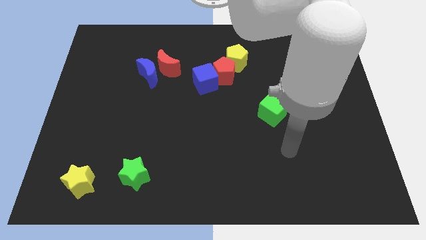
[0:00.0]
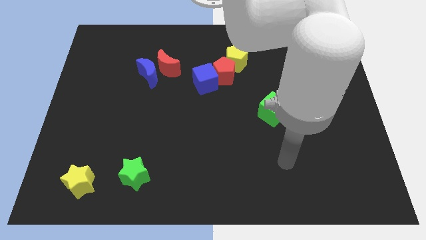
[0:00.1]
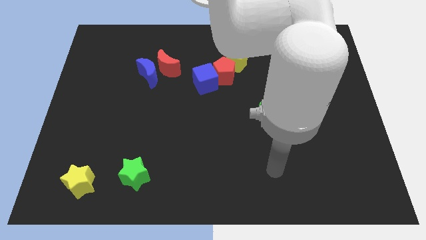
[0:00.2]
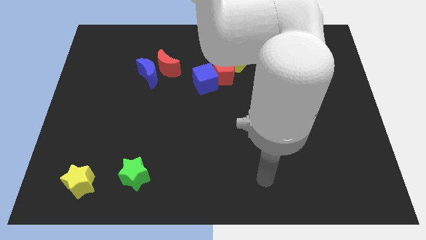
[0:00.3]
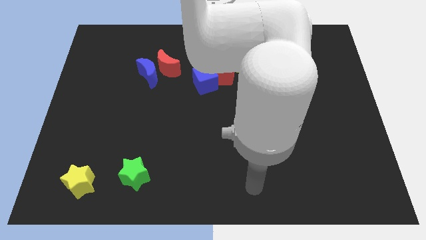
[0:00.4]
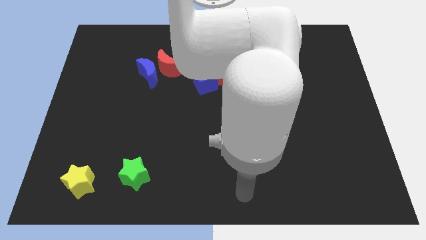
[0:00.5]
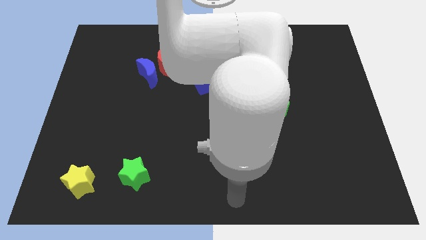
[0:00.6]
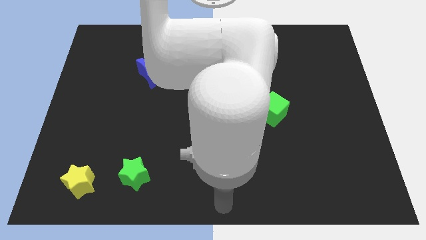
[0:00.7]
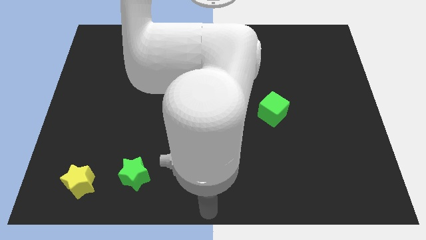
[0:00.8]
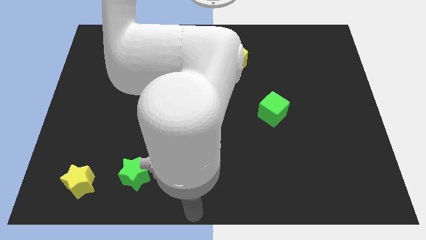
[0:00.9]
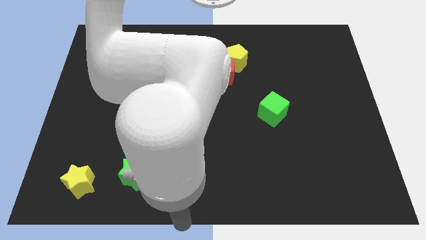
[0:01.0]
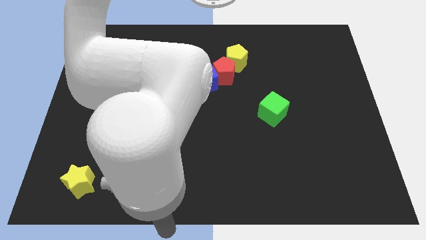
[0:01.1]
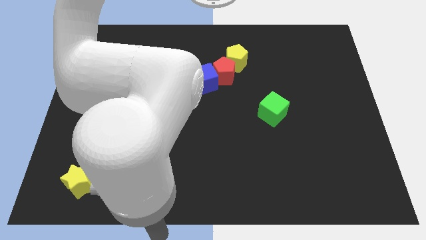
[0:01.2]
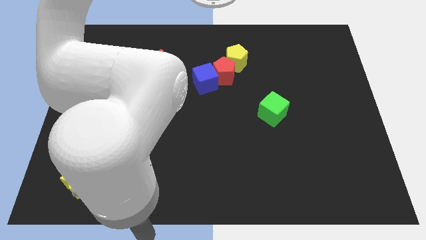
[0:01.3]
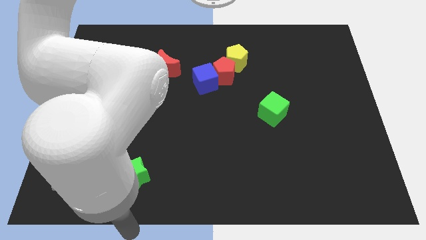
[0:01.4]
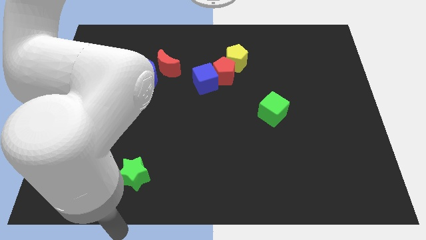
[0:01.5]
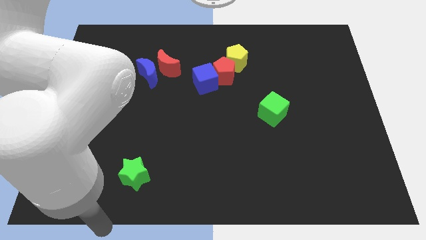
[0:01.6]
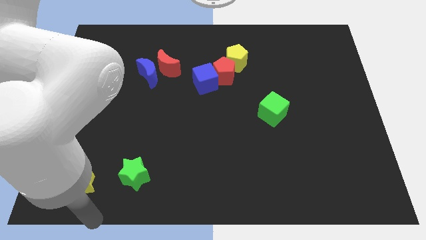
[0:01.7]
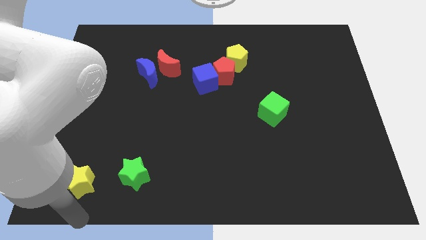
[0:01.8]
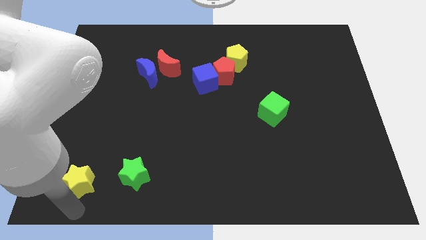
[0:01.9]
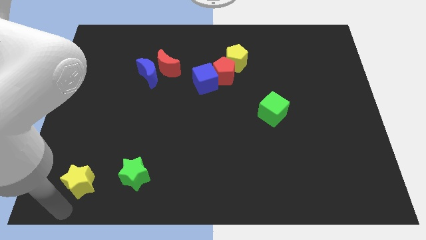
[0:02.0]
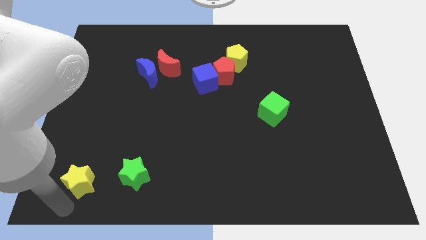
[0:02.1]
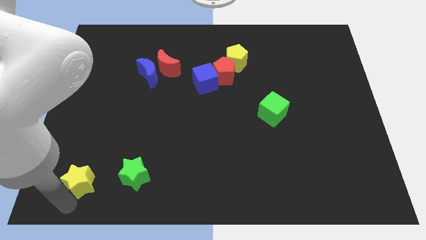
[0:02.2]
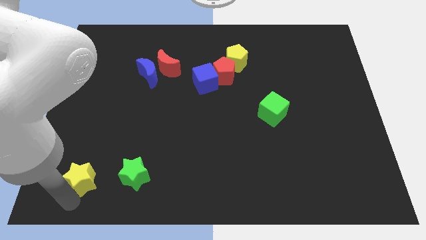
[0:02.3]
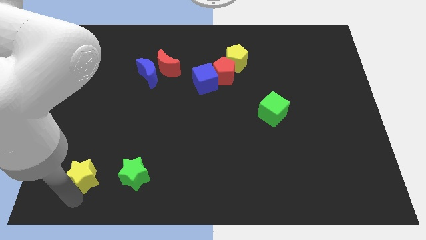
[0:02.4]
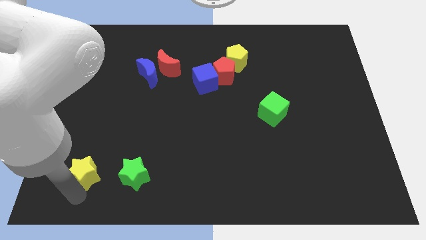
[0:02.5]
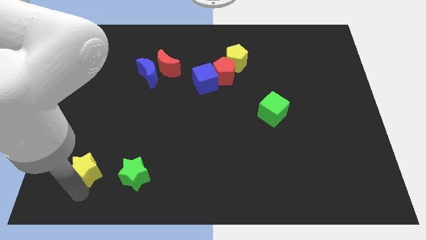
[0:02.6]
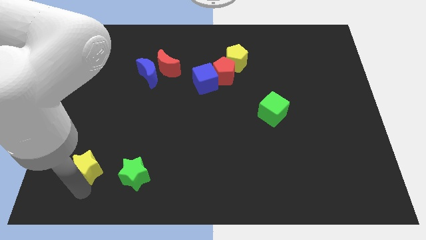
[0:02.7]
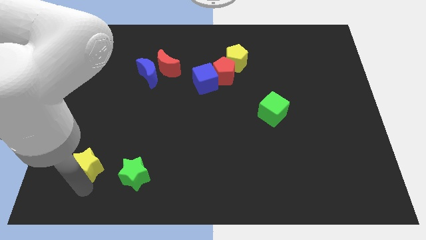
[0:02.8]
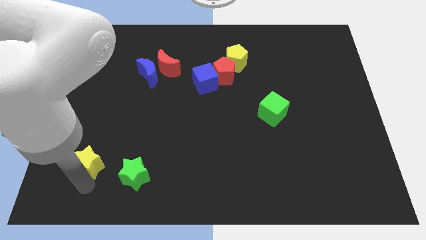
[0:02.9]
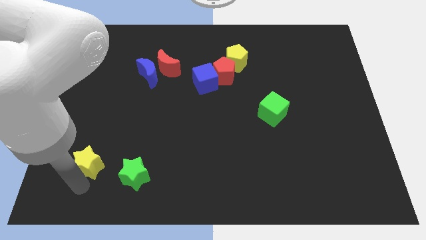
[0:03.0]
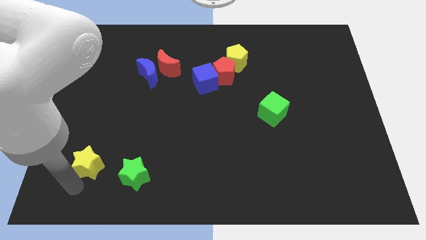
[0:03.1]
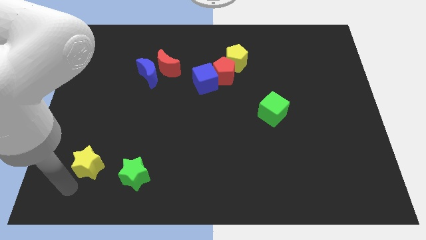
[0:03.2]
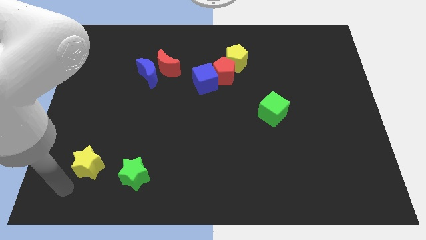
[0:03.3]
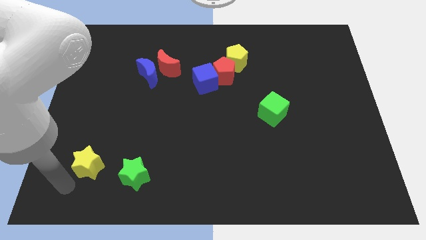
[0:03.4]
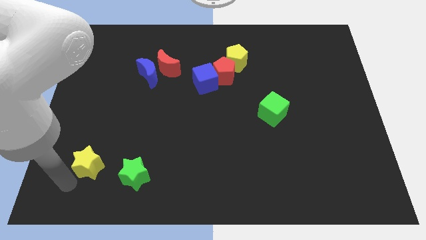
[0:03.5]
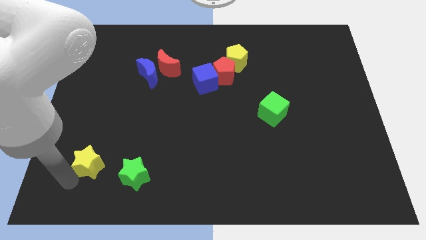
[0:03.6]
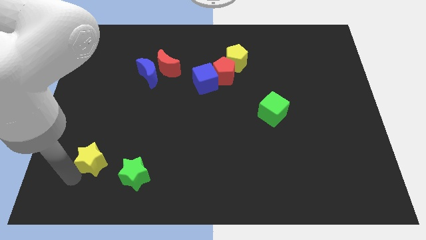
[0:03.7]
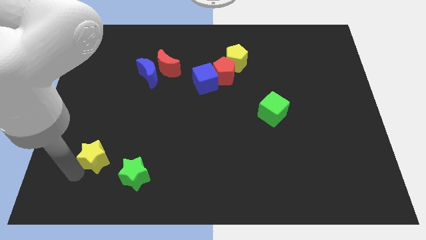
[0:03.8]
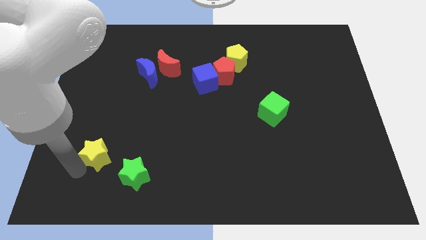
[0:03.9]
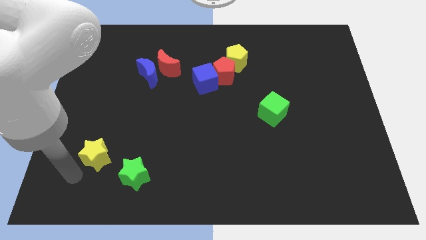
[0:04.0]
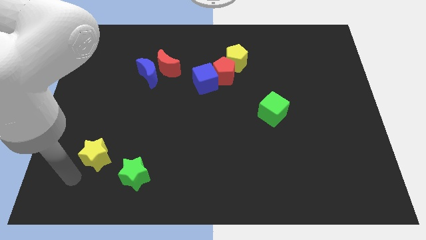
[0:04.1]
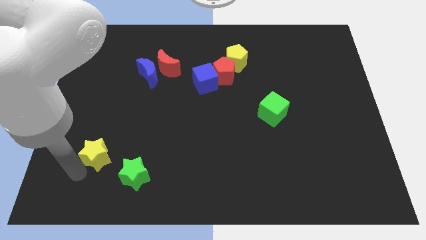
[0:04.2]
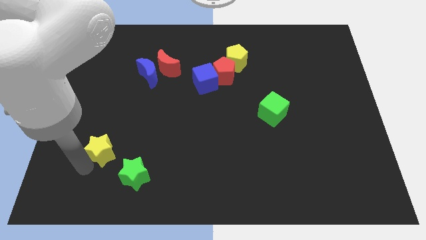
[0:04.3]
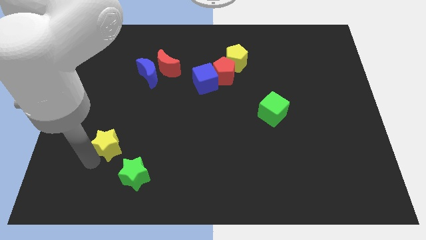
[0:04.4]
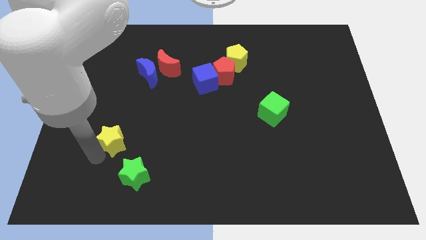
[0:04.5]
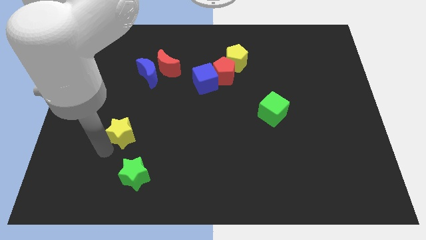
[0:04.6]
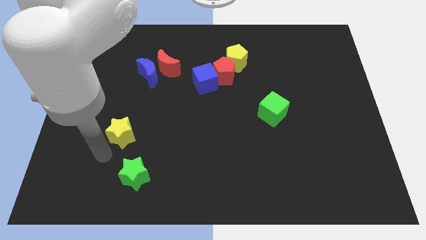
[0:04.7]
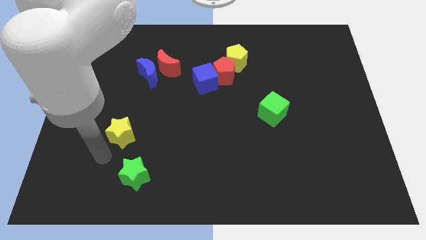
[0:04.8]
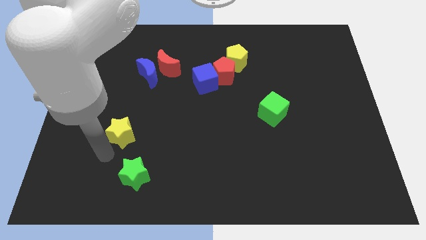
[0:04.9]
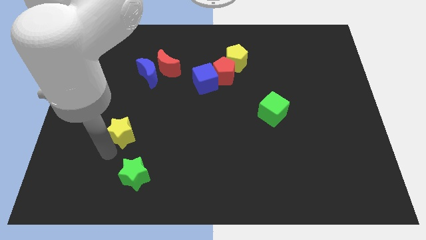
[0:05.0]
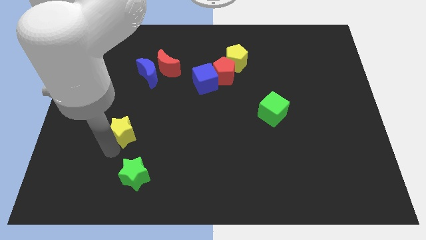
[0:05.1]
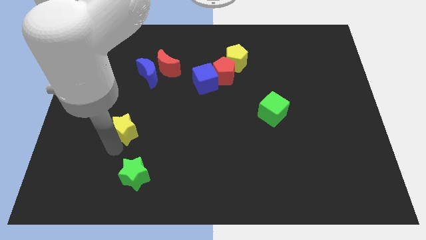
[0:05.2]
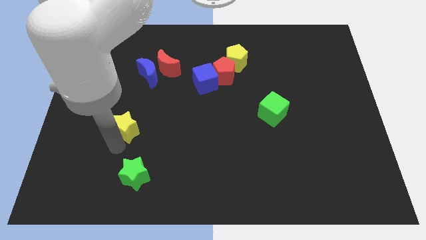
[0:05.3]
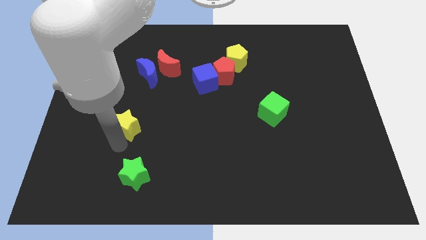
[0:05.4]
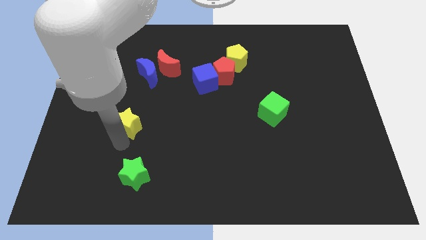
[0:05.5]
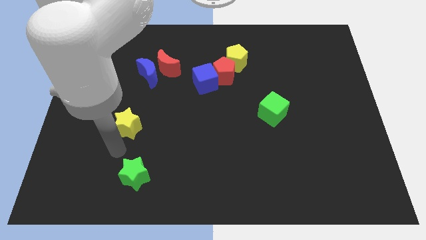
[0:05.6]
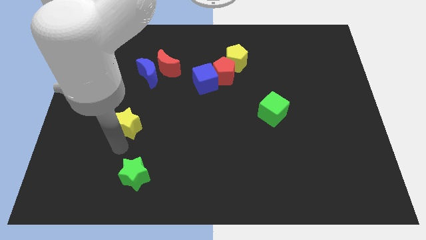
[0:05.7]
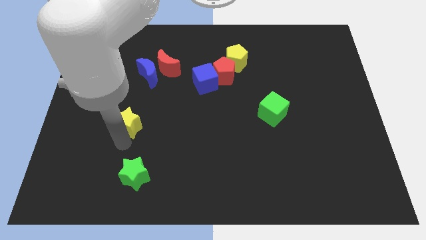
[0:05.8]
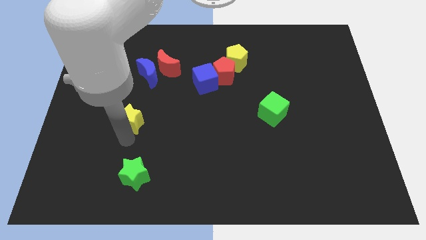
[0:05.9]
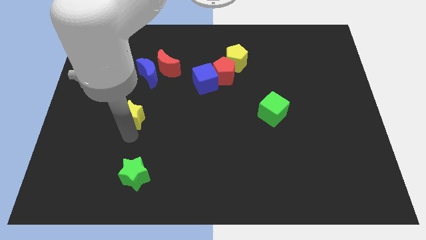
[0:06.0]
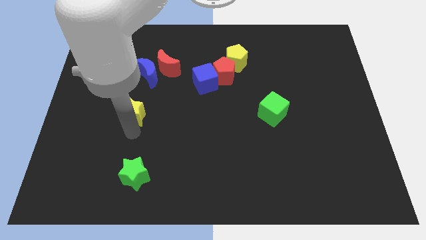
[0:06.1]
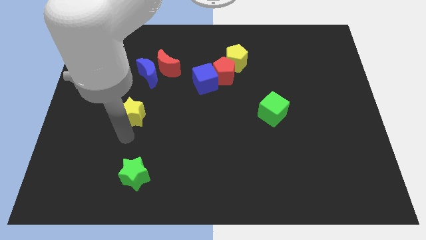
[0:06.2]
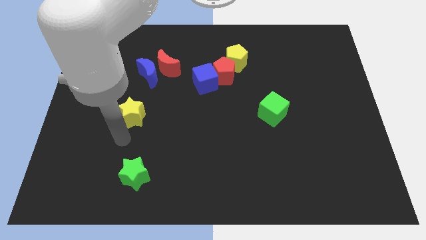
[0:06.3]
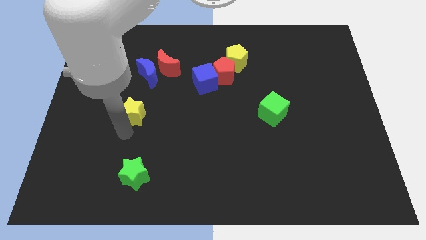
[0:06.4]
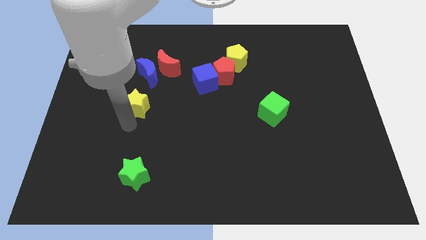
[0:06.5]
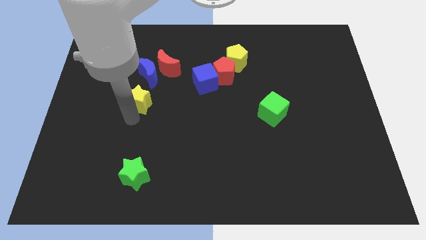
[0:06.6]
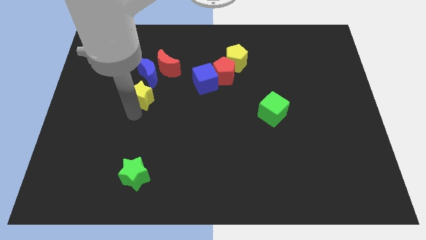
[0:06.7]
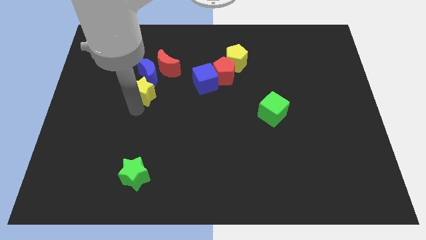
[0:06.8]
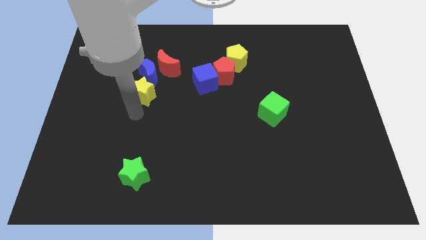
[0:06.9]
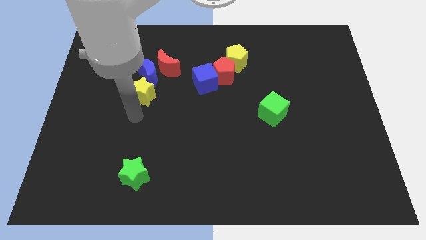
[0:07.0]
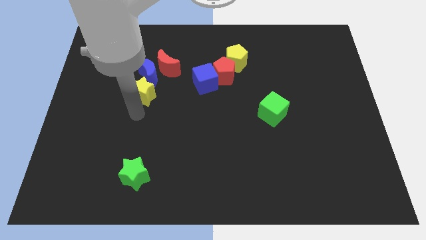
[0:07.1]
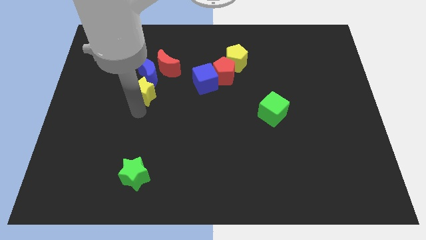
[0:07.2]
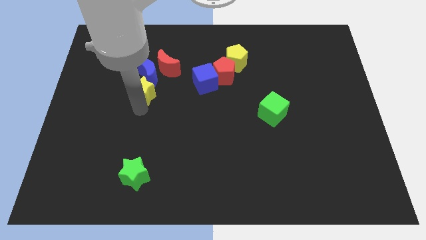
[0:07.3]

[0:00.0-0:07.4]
push the yellow star next to the blue moon

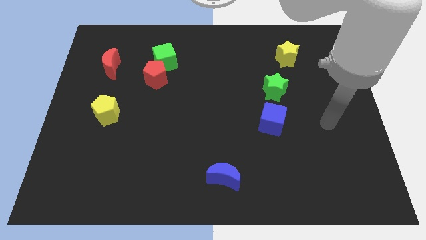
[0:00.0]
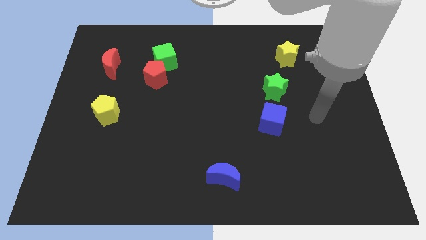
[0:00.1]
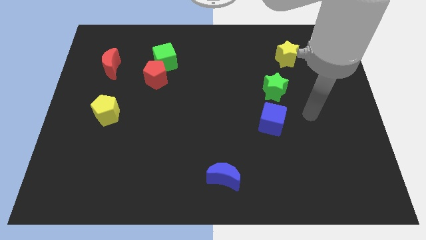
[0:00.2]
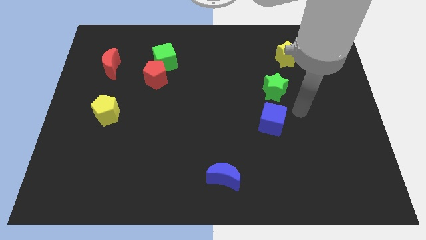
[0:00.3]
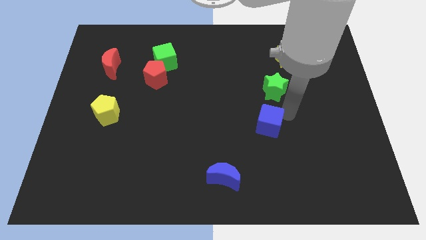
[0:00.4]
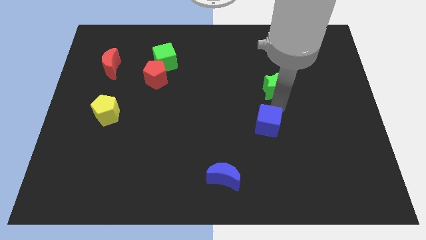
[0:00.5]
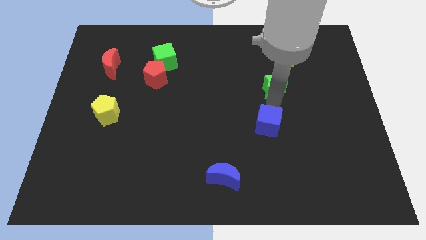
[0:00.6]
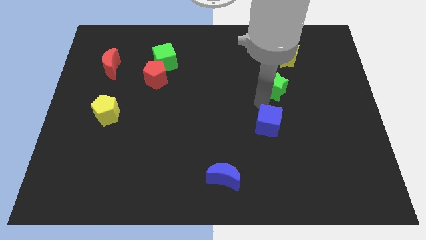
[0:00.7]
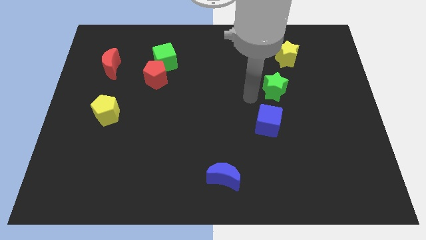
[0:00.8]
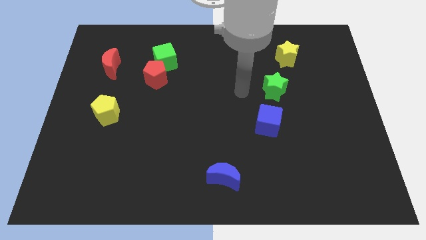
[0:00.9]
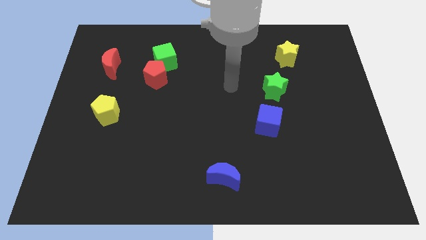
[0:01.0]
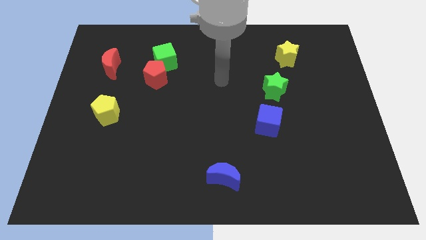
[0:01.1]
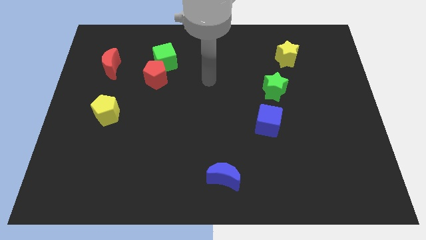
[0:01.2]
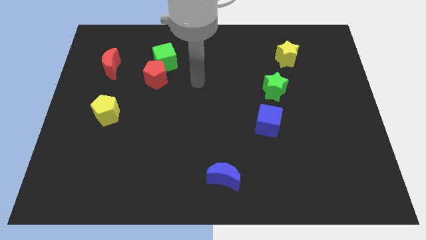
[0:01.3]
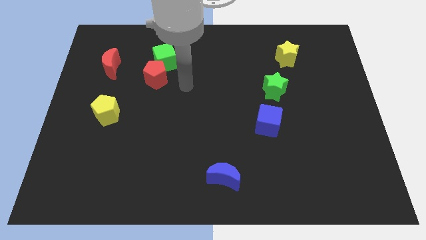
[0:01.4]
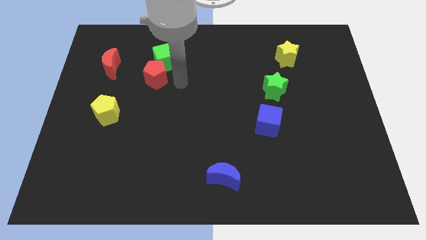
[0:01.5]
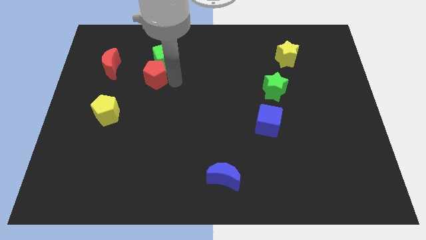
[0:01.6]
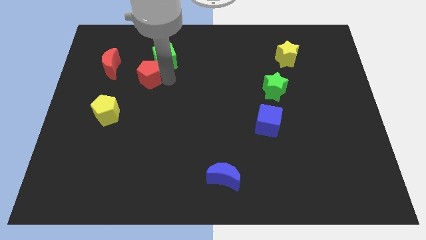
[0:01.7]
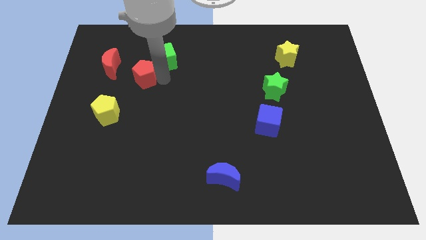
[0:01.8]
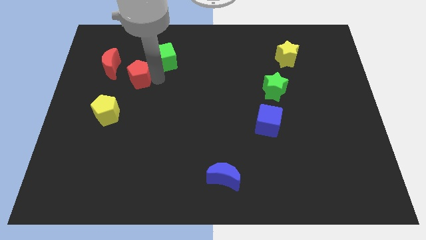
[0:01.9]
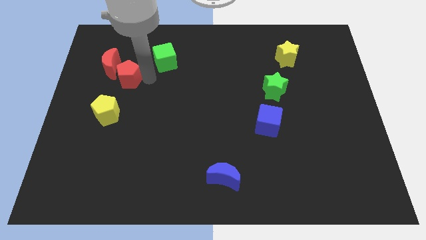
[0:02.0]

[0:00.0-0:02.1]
put the red pentagon next to the red moon
